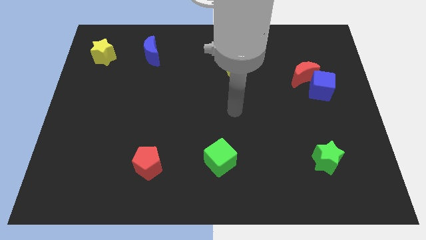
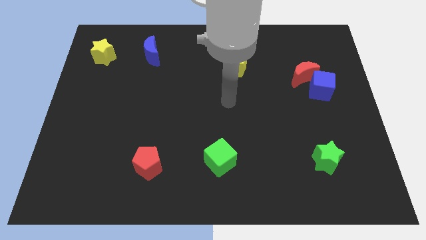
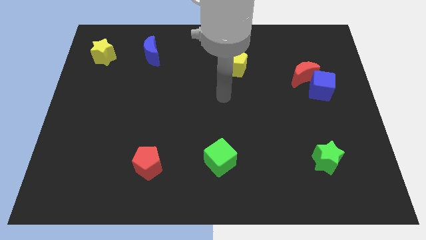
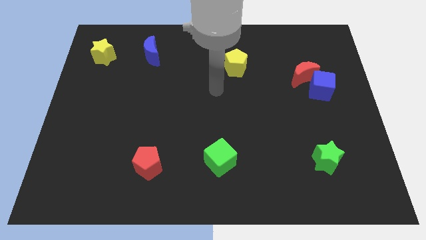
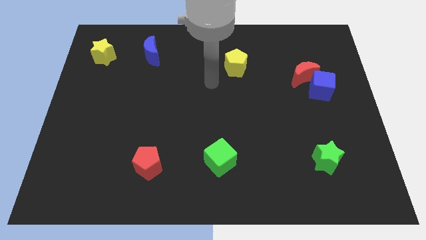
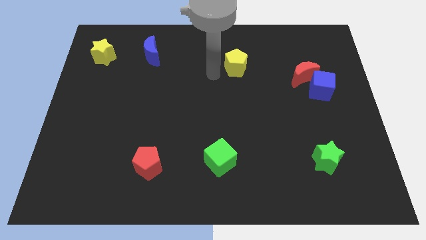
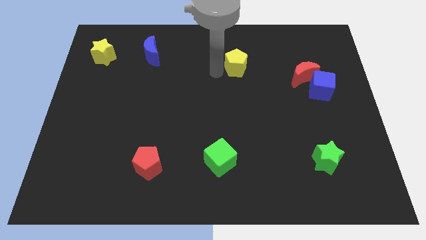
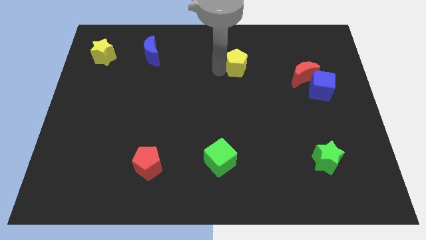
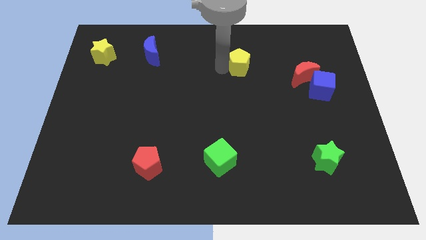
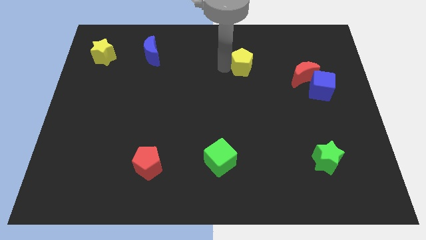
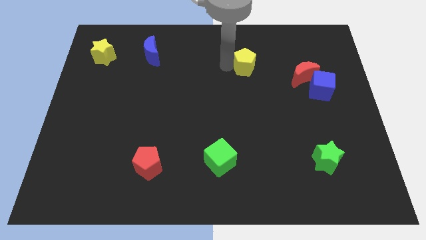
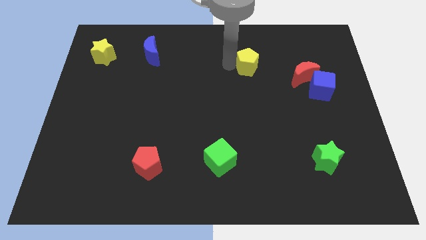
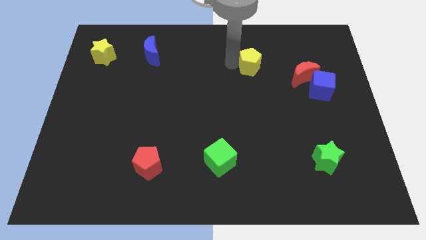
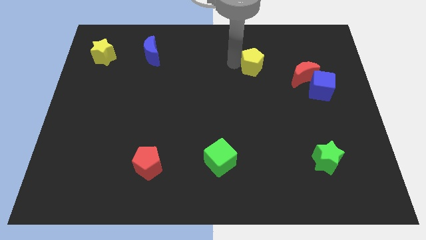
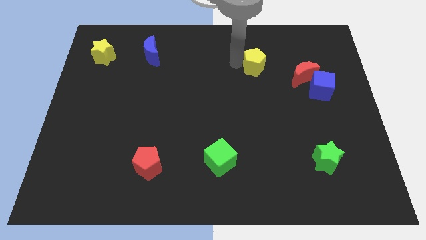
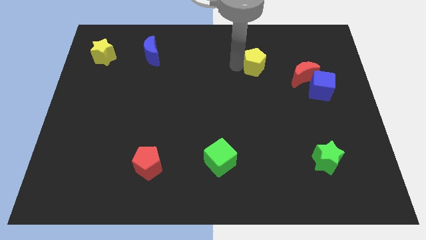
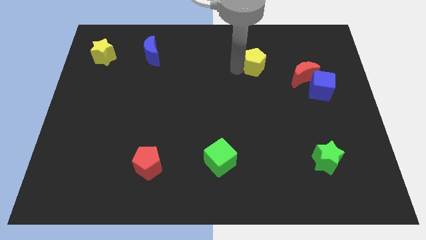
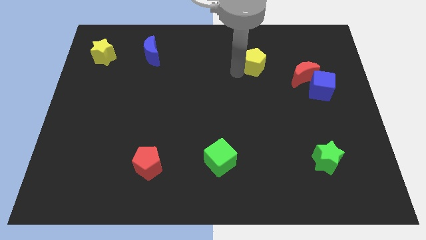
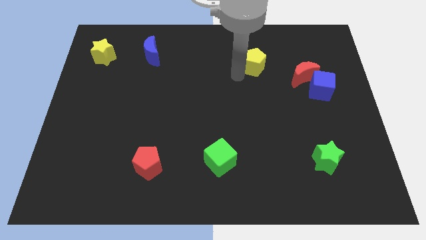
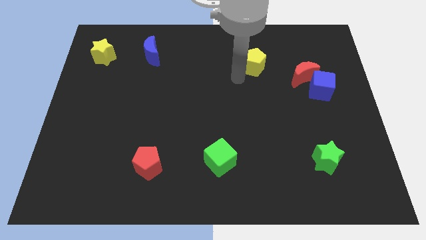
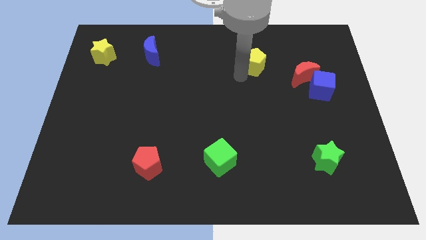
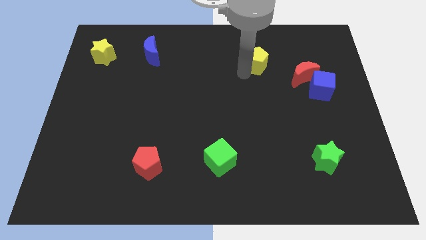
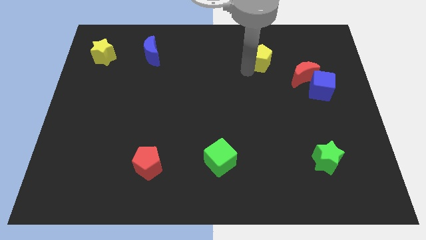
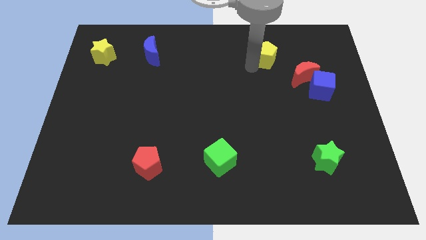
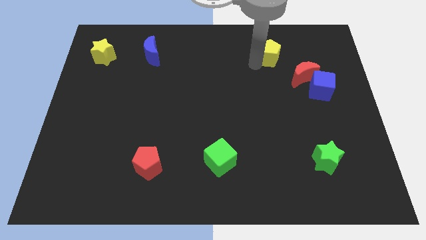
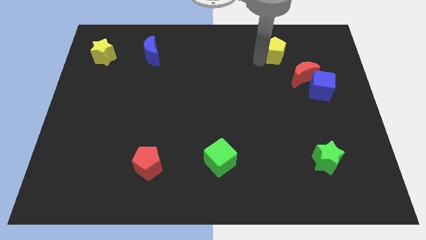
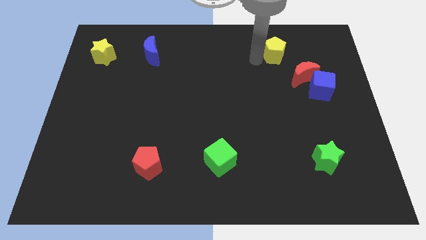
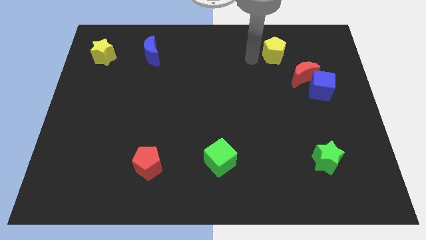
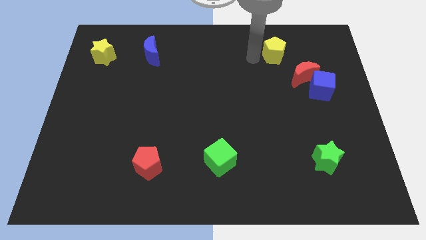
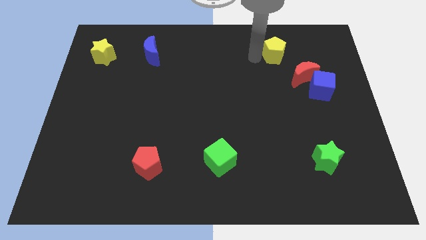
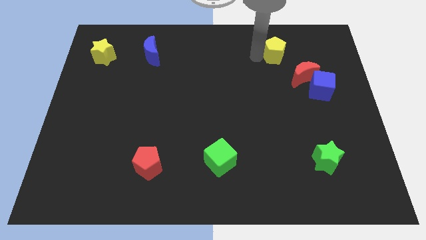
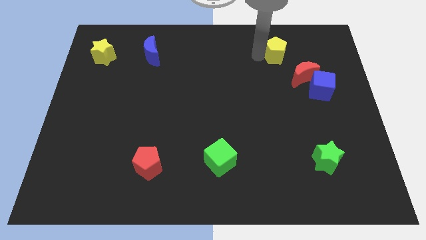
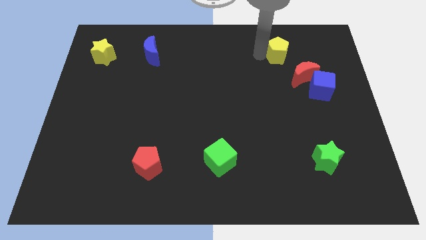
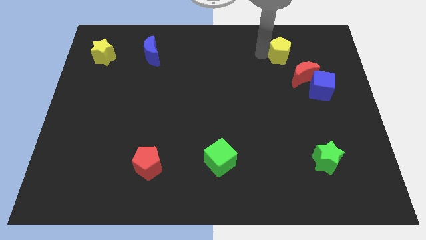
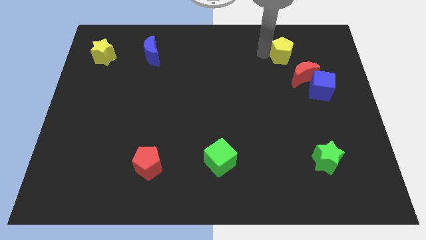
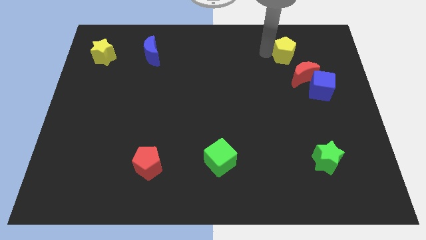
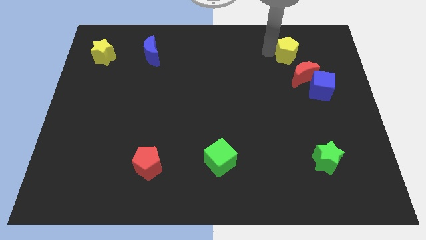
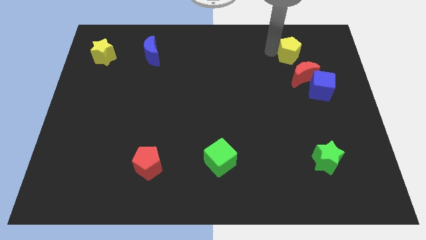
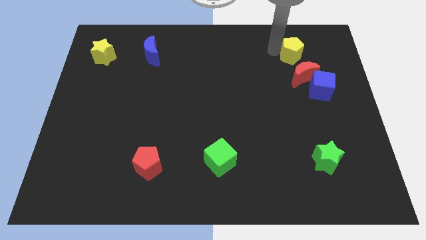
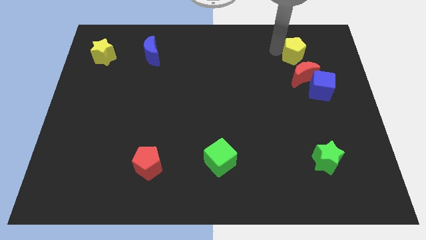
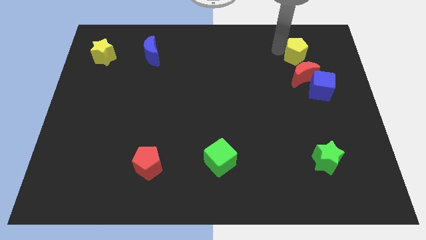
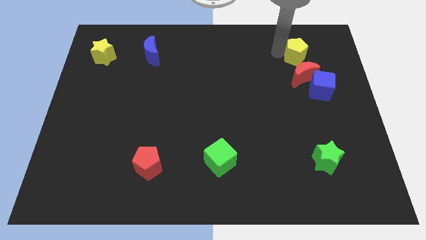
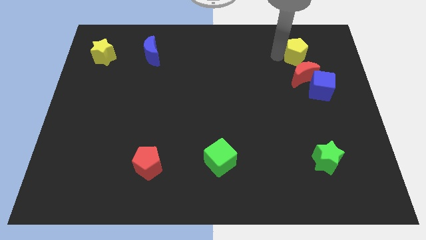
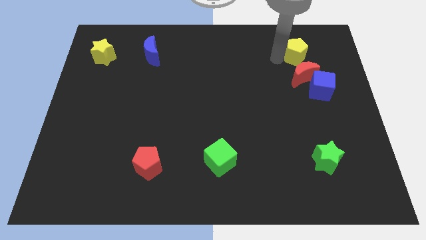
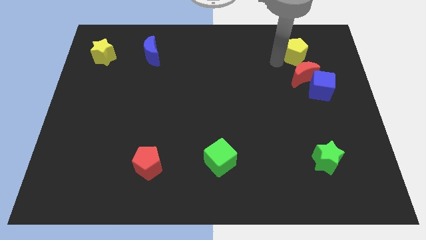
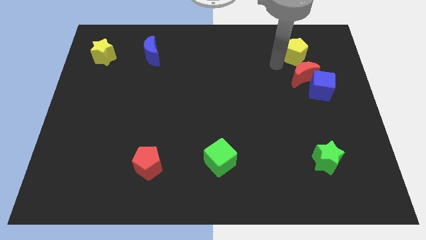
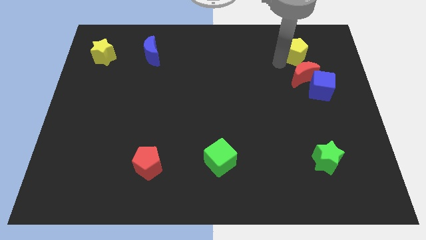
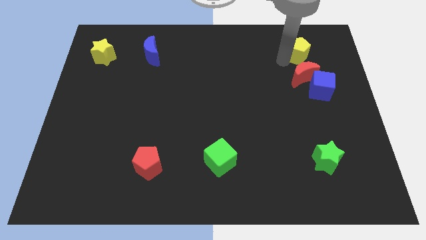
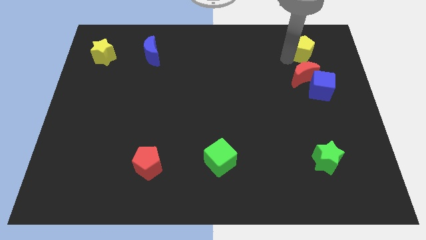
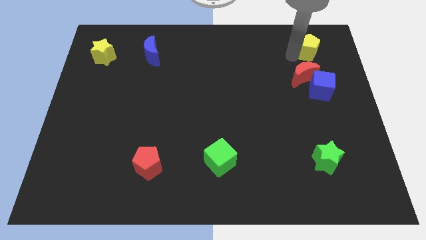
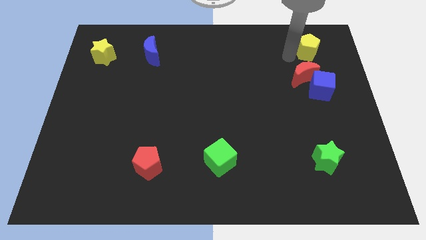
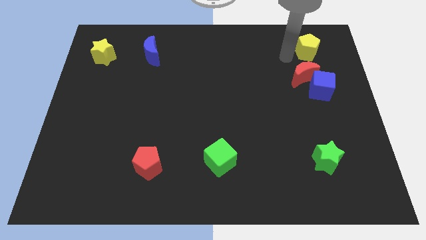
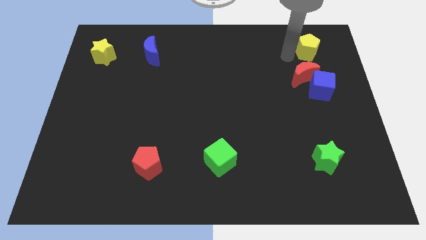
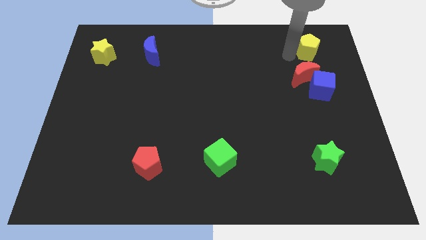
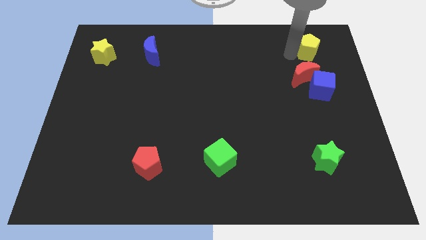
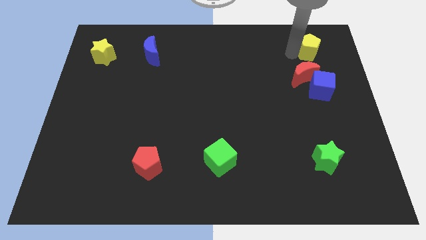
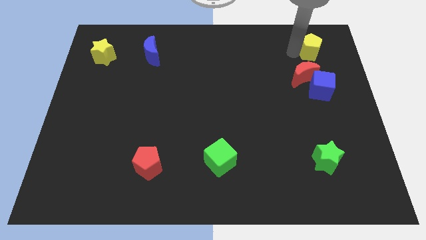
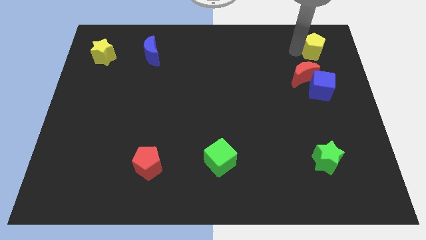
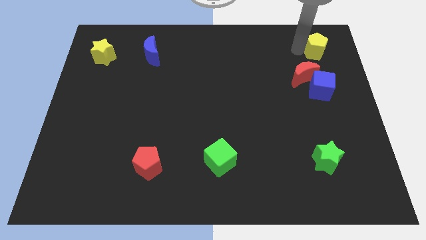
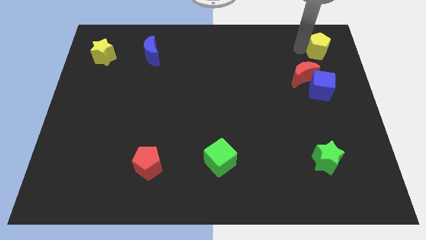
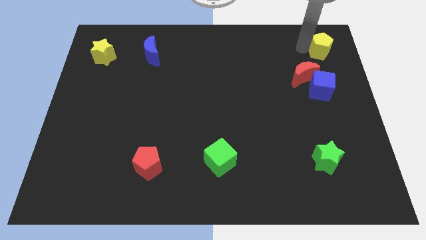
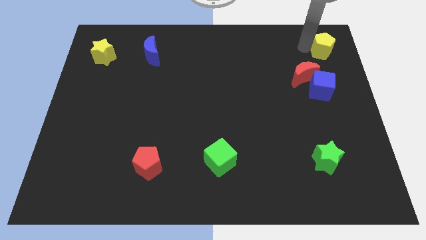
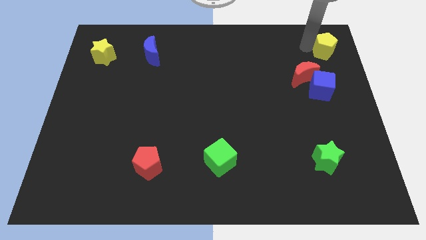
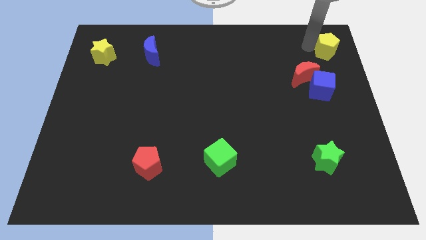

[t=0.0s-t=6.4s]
push the yellow pentagon to the top right

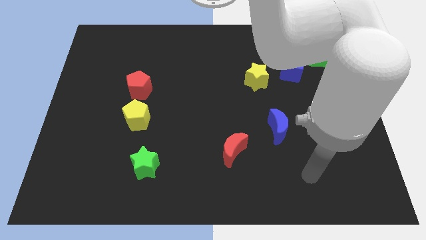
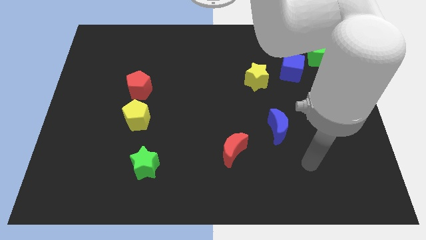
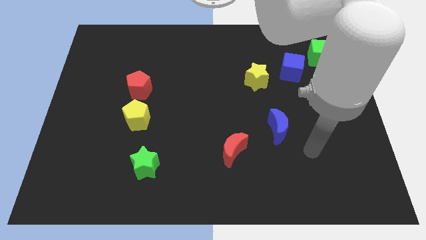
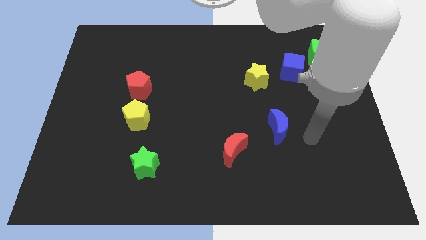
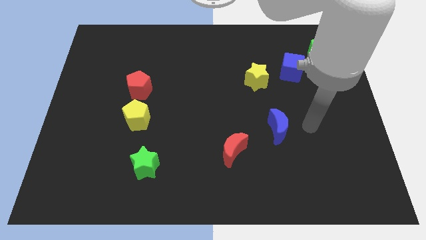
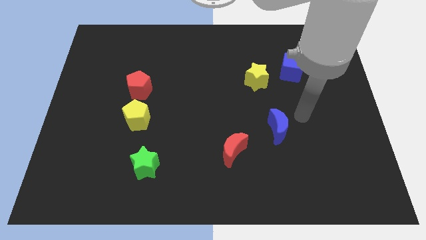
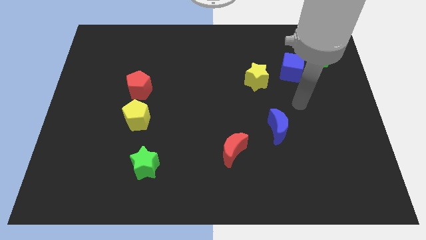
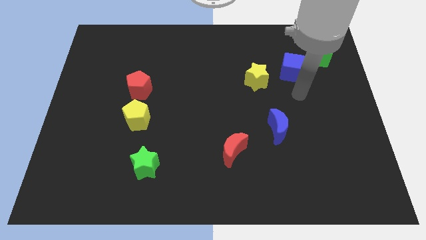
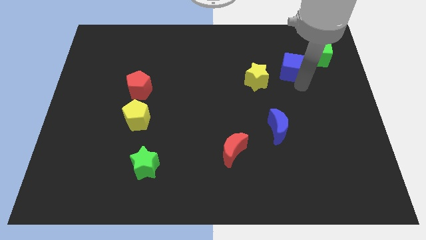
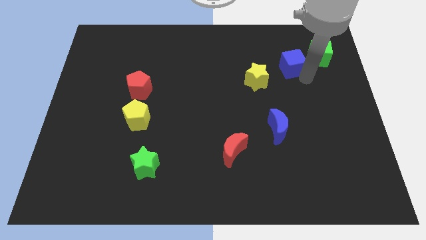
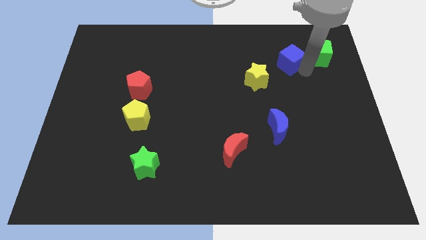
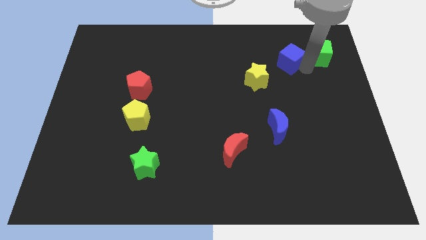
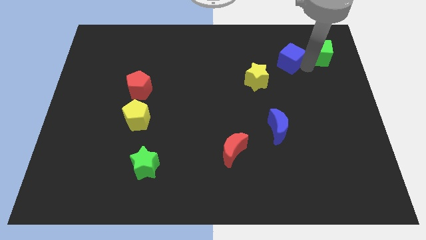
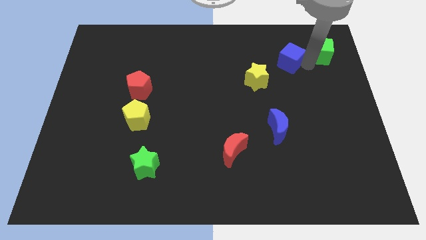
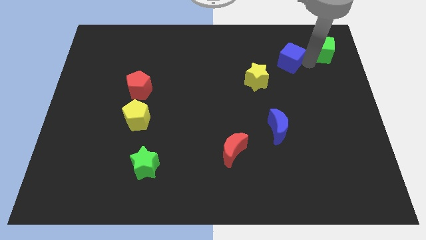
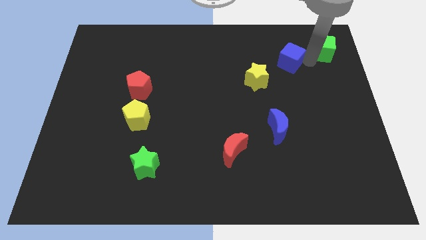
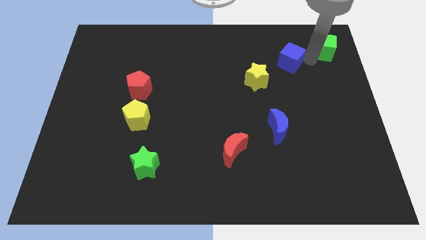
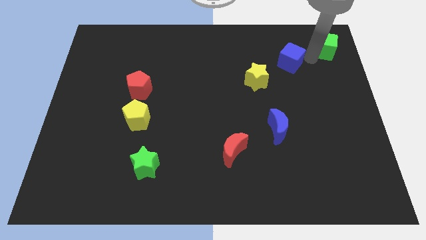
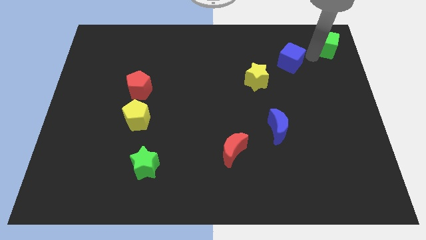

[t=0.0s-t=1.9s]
slide the green cube to the top right corner
